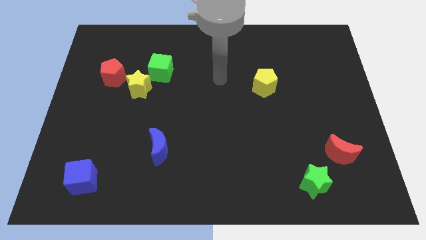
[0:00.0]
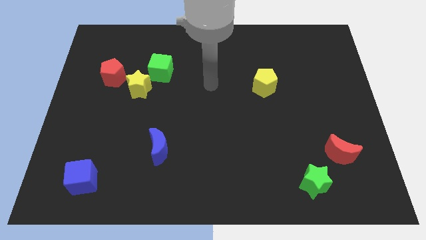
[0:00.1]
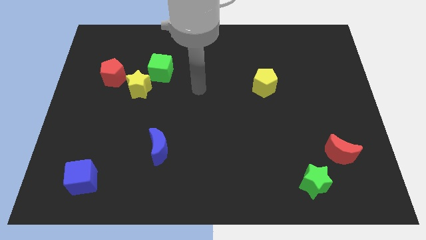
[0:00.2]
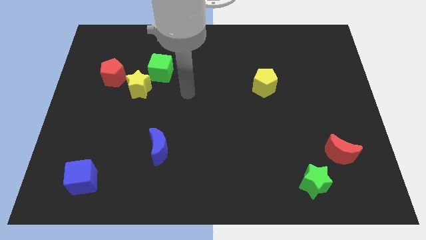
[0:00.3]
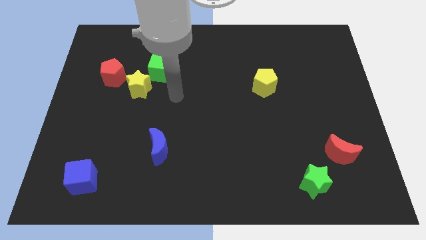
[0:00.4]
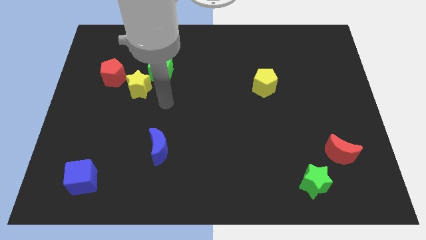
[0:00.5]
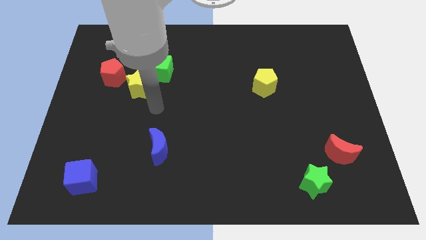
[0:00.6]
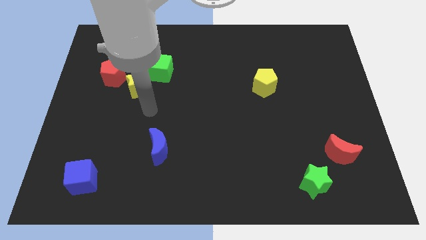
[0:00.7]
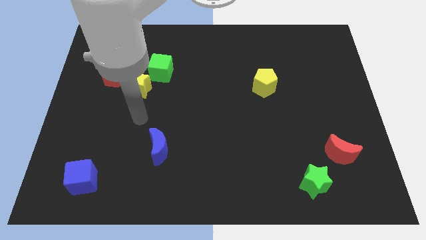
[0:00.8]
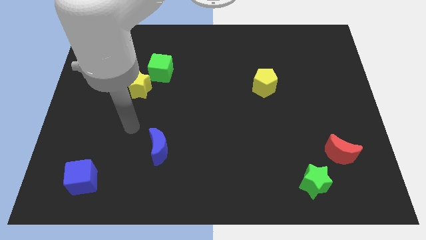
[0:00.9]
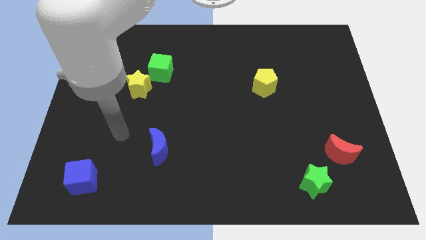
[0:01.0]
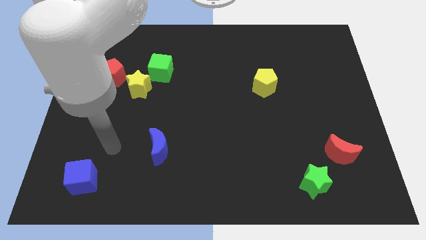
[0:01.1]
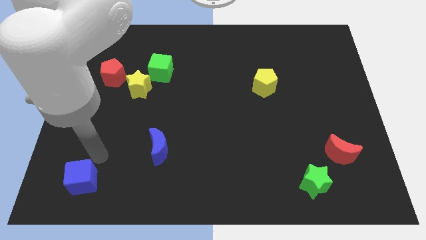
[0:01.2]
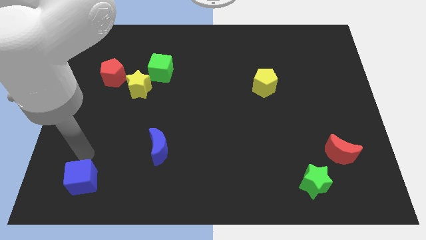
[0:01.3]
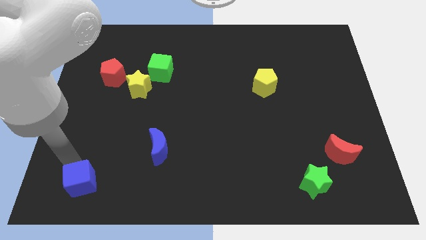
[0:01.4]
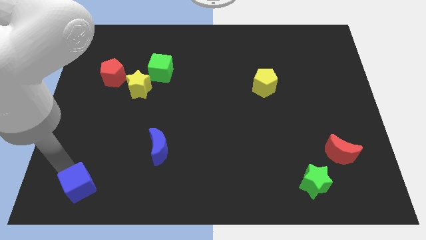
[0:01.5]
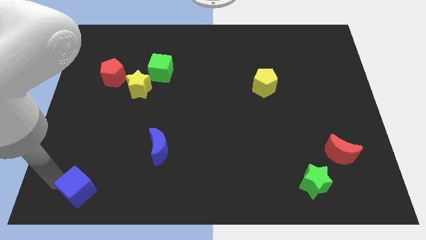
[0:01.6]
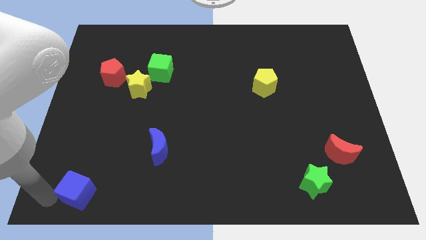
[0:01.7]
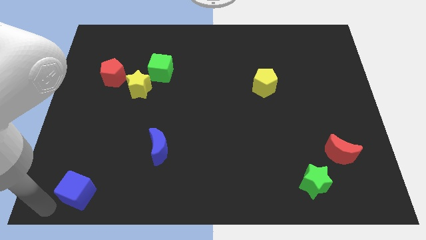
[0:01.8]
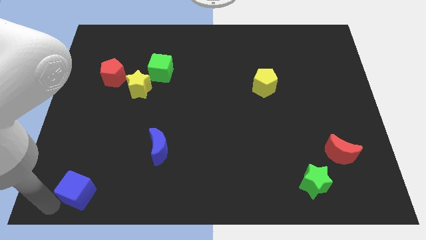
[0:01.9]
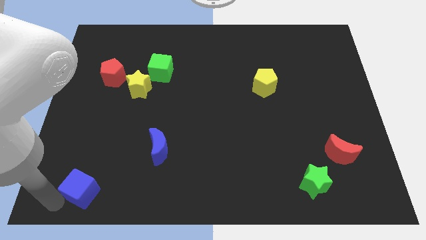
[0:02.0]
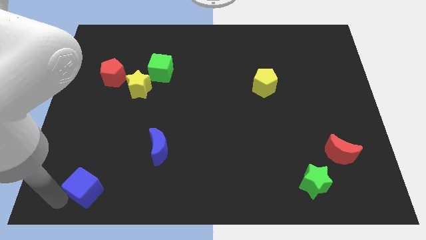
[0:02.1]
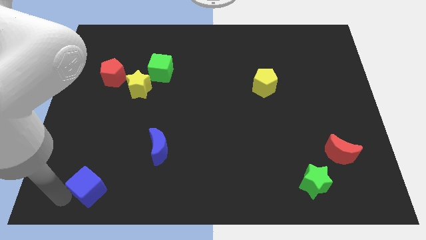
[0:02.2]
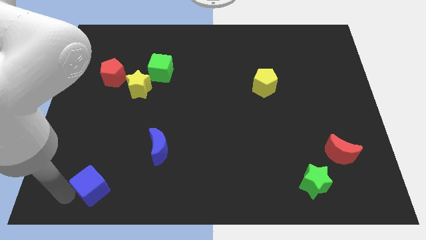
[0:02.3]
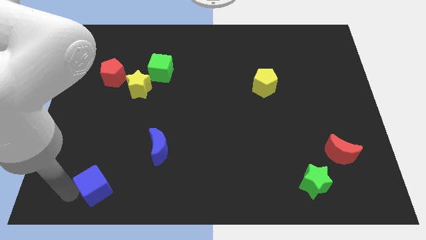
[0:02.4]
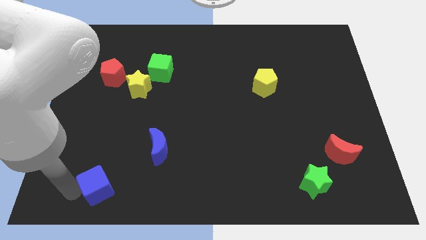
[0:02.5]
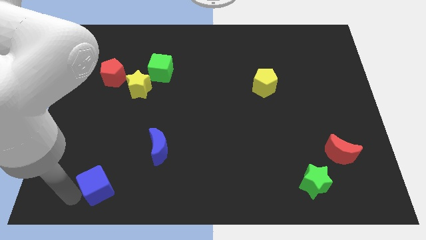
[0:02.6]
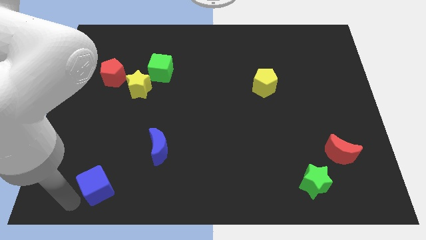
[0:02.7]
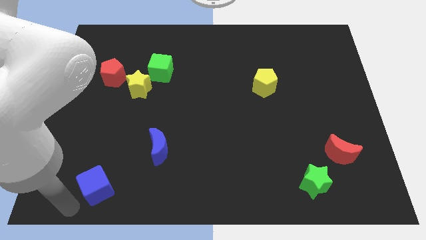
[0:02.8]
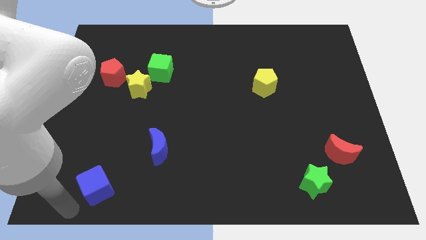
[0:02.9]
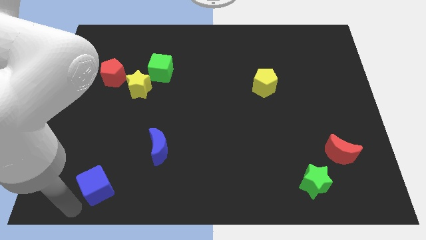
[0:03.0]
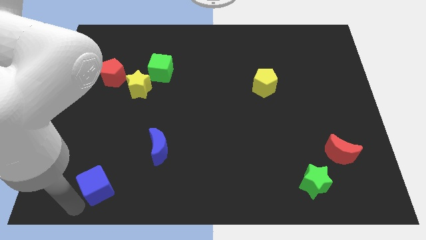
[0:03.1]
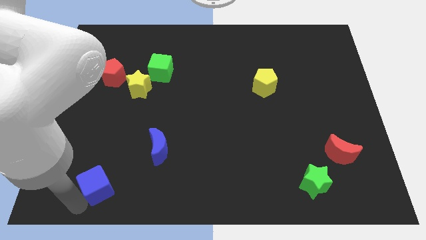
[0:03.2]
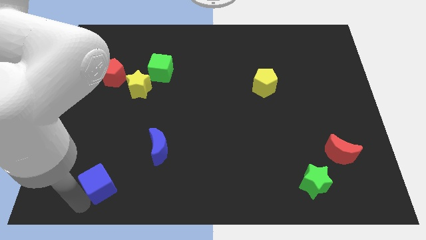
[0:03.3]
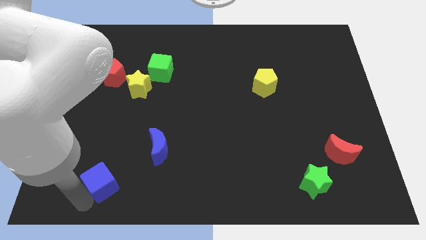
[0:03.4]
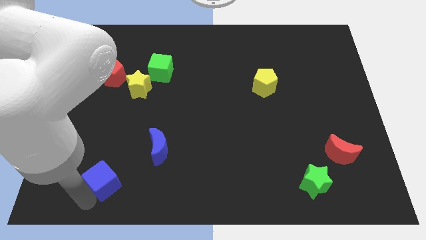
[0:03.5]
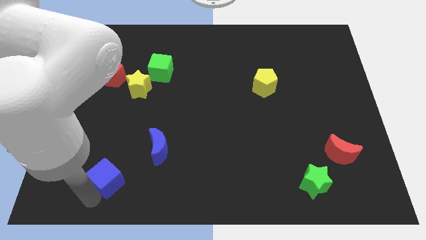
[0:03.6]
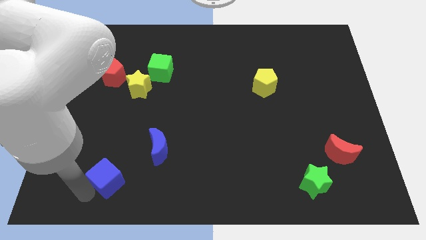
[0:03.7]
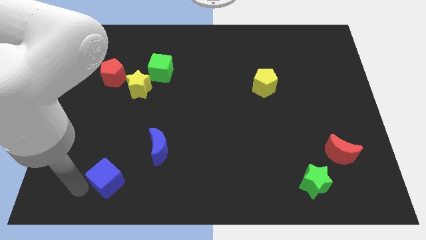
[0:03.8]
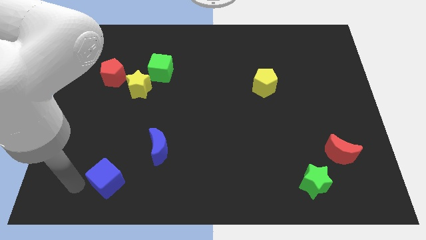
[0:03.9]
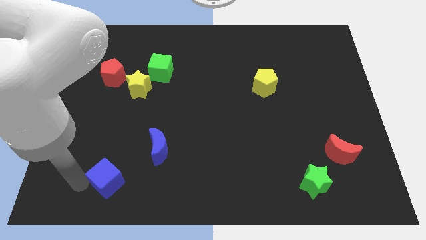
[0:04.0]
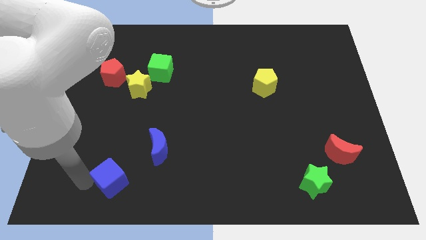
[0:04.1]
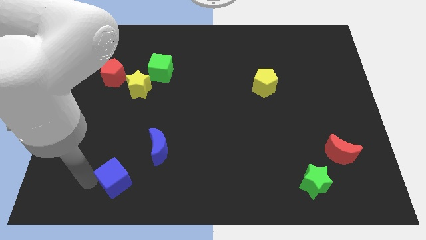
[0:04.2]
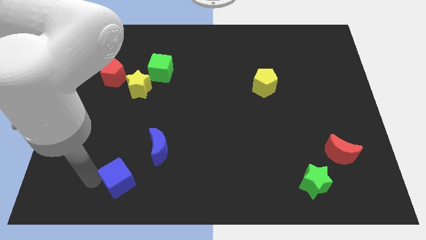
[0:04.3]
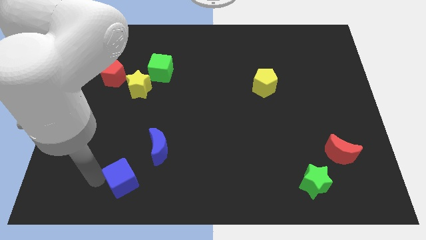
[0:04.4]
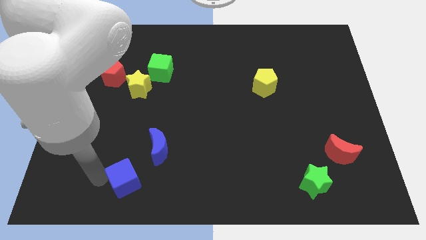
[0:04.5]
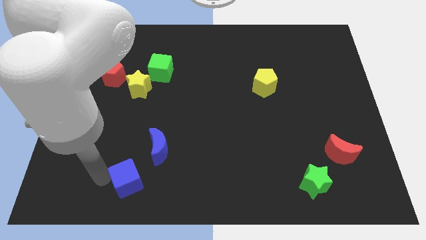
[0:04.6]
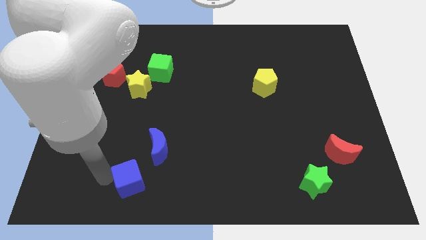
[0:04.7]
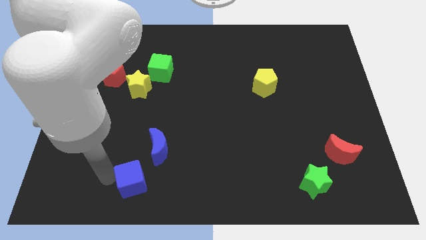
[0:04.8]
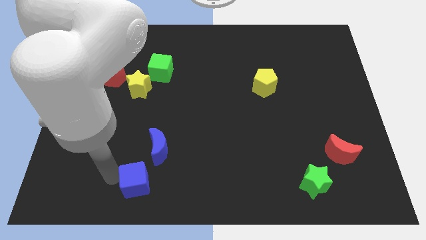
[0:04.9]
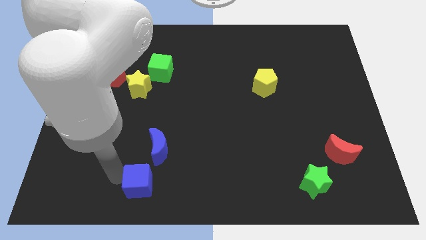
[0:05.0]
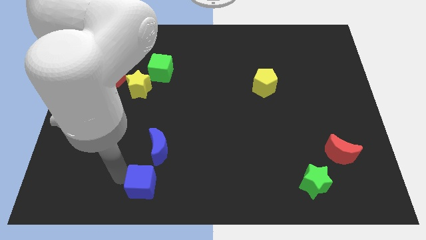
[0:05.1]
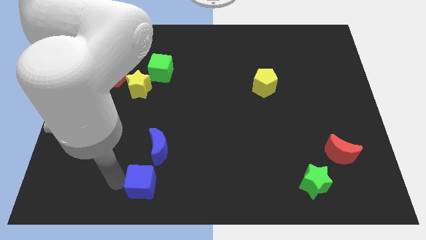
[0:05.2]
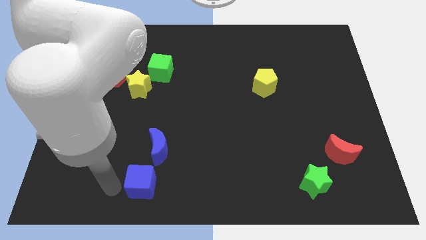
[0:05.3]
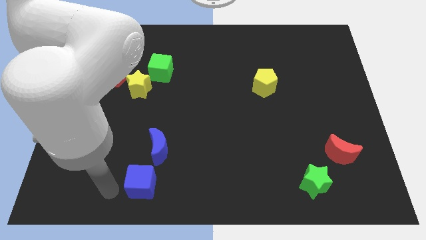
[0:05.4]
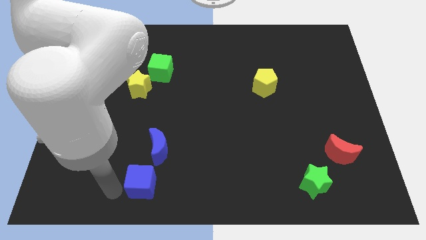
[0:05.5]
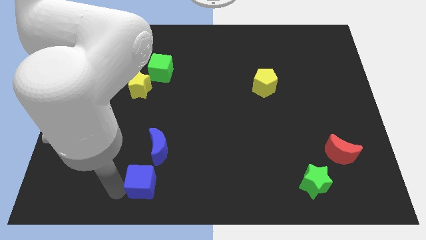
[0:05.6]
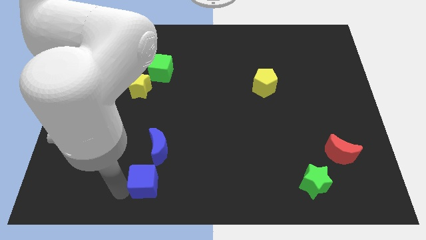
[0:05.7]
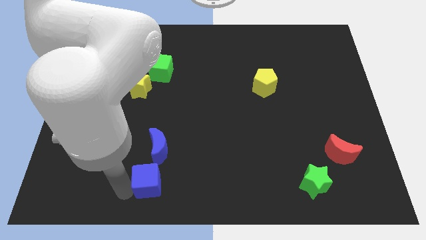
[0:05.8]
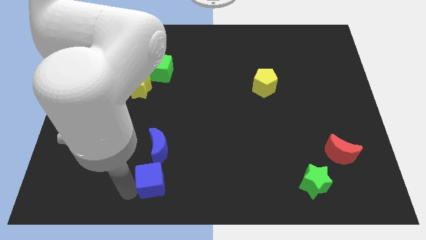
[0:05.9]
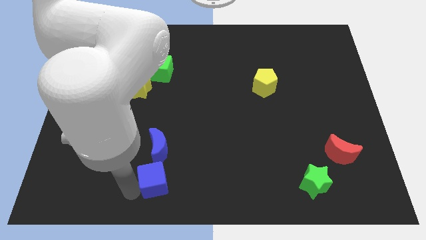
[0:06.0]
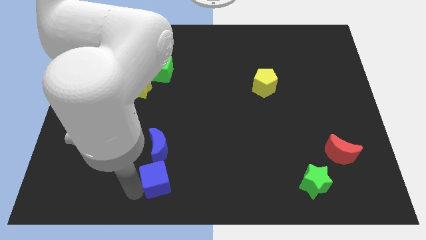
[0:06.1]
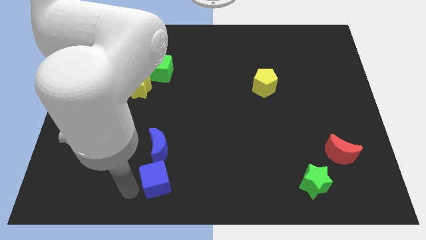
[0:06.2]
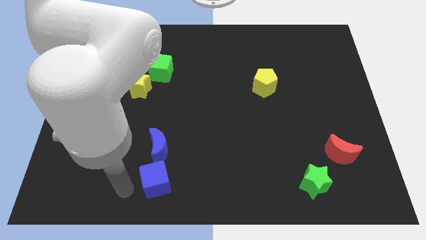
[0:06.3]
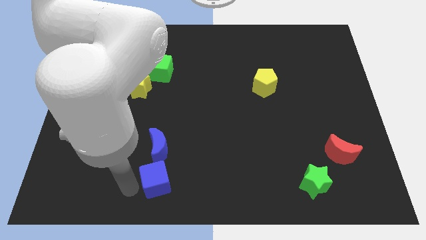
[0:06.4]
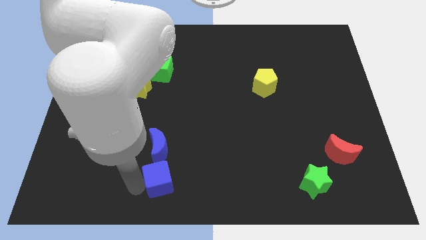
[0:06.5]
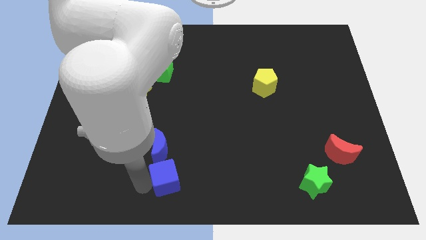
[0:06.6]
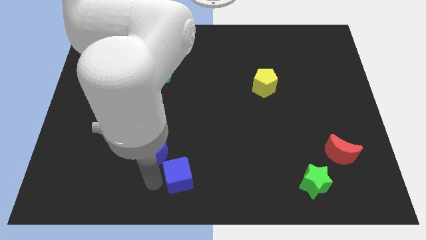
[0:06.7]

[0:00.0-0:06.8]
slide the blue cube right

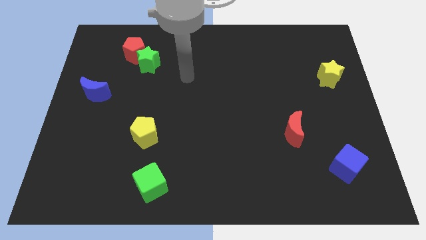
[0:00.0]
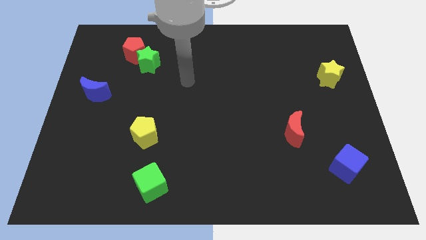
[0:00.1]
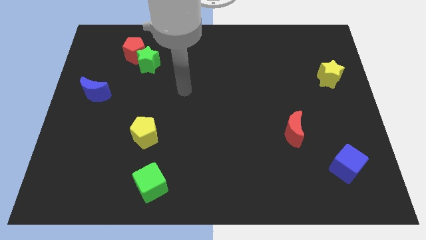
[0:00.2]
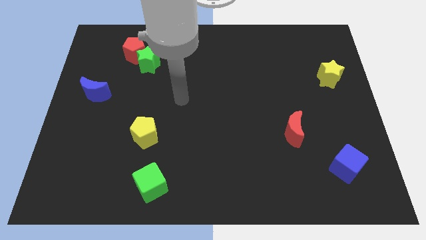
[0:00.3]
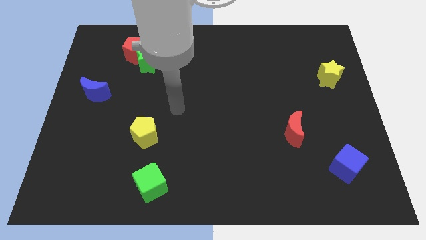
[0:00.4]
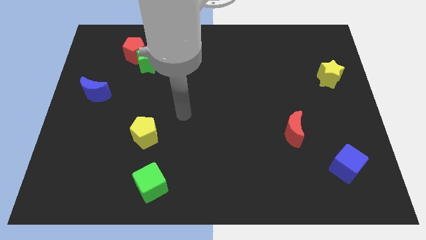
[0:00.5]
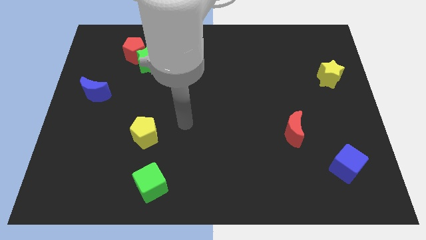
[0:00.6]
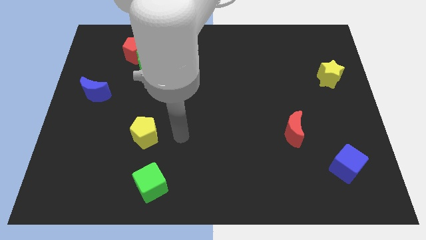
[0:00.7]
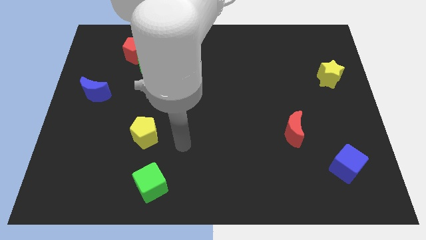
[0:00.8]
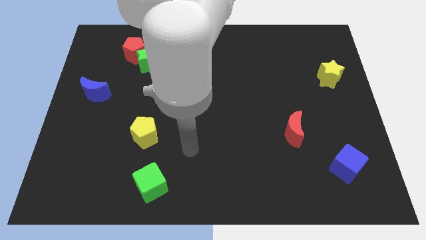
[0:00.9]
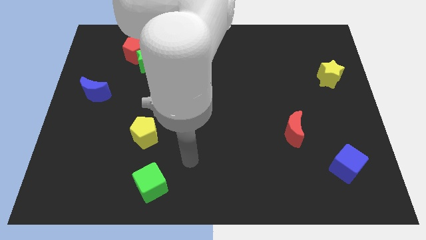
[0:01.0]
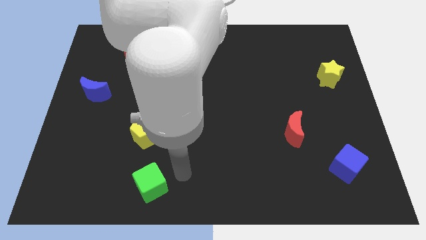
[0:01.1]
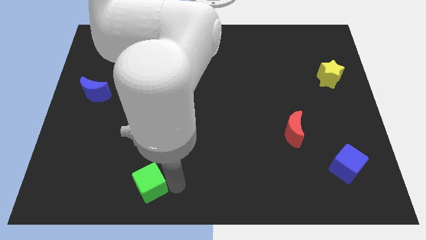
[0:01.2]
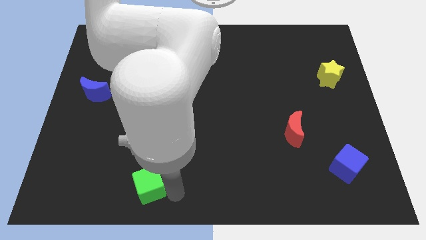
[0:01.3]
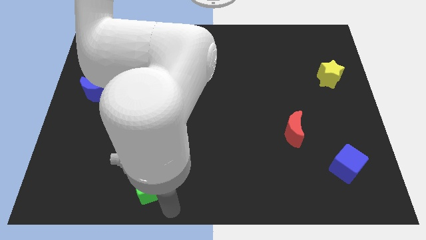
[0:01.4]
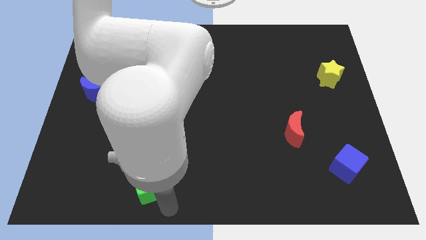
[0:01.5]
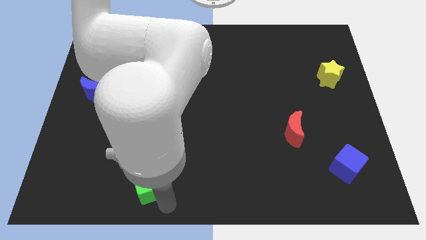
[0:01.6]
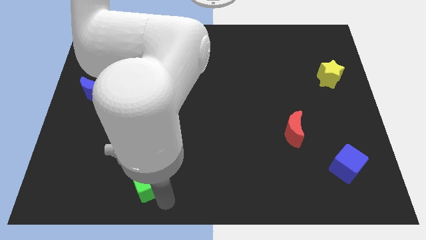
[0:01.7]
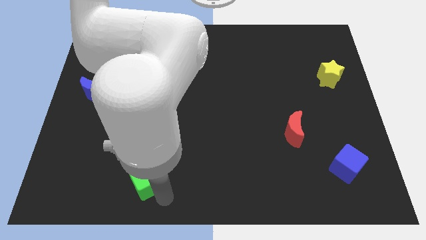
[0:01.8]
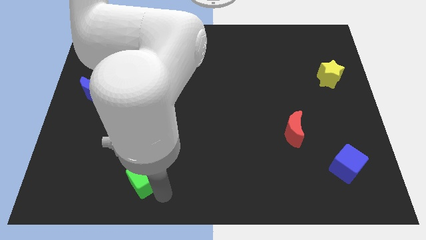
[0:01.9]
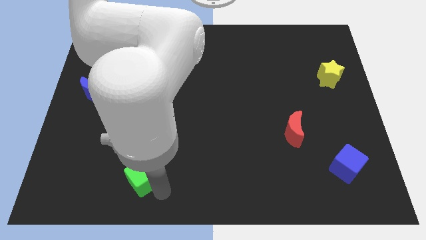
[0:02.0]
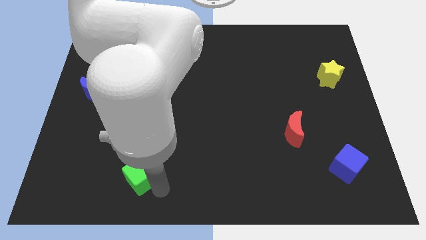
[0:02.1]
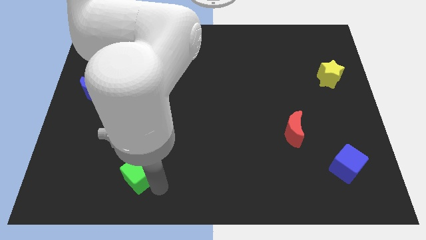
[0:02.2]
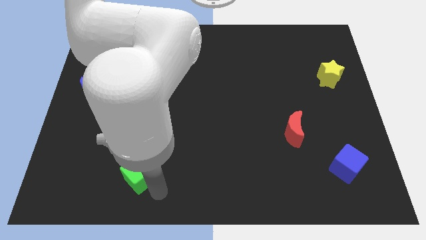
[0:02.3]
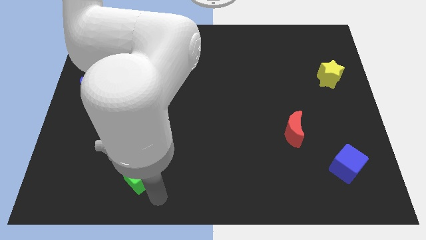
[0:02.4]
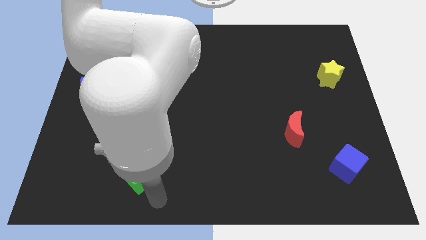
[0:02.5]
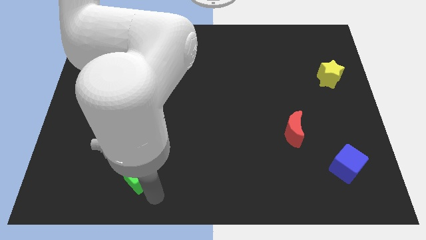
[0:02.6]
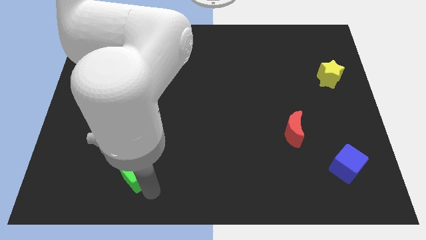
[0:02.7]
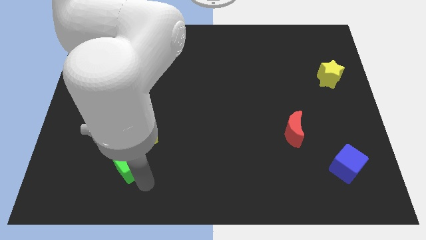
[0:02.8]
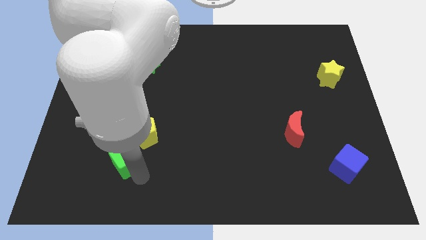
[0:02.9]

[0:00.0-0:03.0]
slightly slide the green cube diagonally up and to the left
